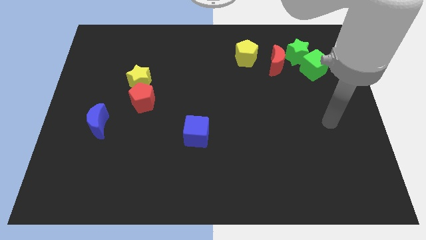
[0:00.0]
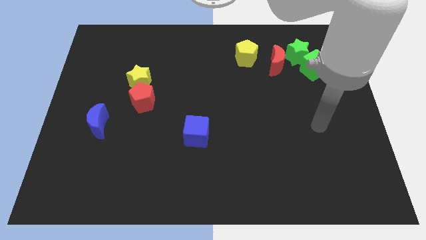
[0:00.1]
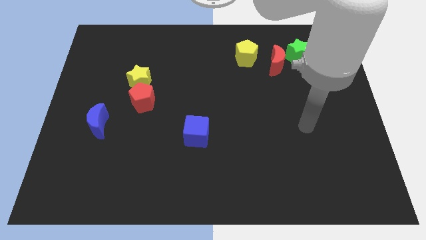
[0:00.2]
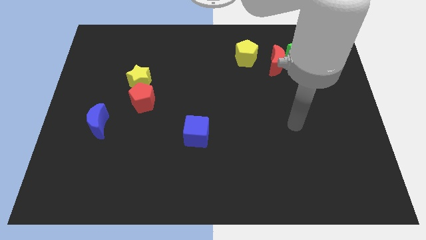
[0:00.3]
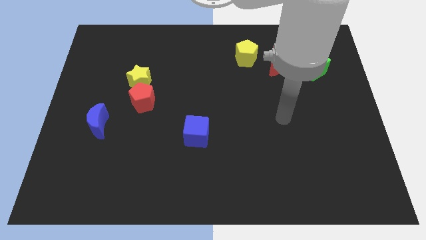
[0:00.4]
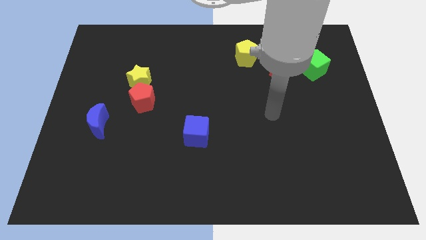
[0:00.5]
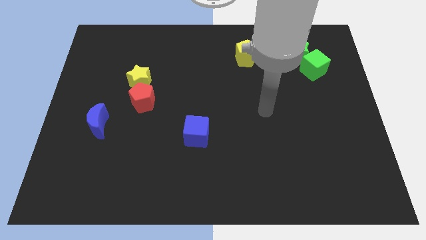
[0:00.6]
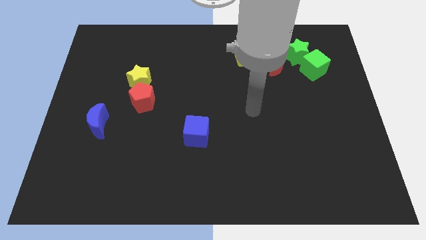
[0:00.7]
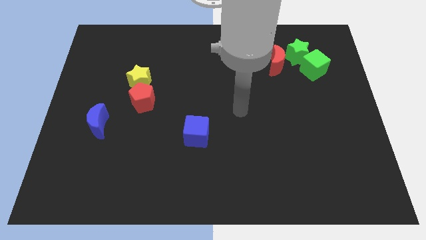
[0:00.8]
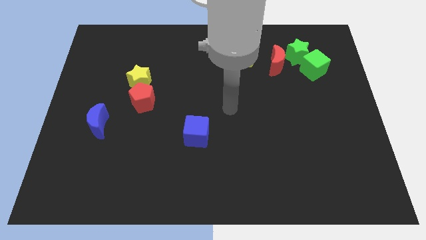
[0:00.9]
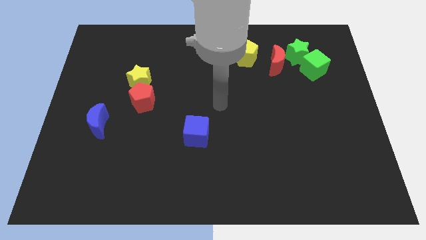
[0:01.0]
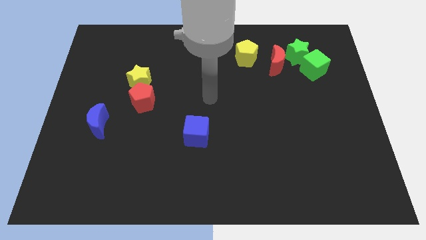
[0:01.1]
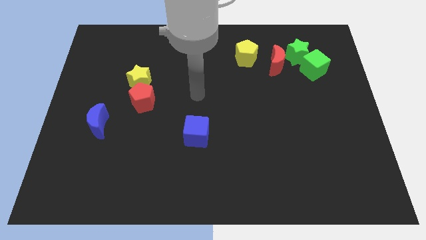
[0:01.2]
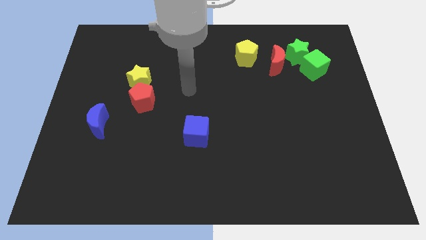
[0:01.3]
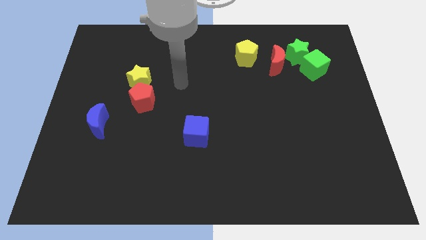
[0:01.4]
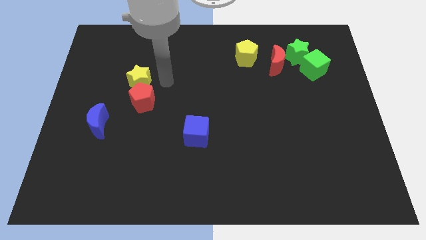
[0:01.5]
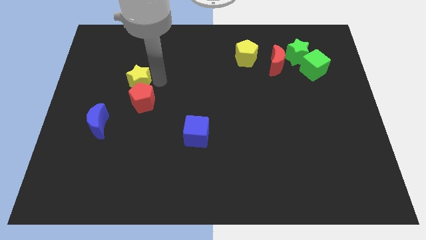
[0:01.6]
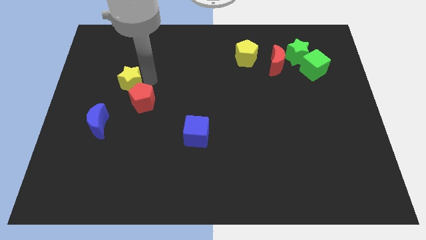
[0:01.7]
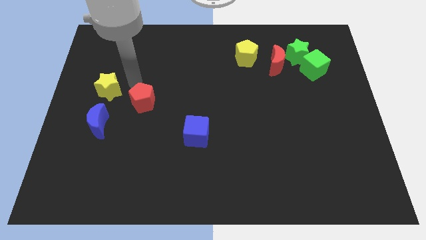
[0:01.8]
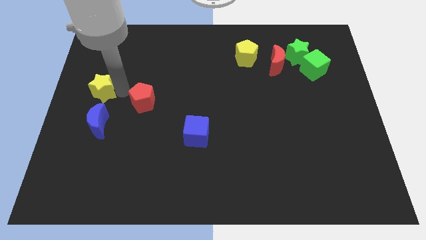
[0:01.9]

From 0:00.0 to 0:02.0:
pull the red pentagon apart from the yellow star

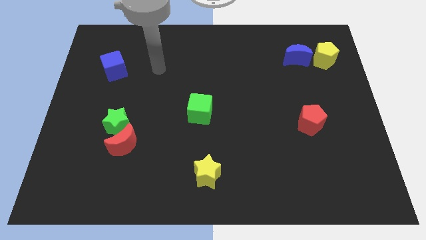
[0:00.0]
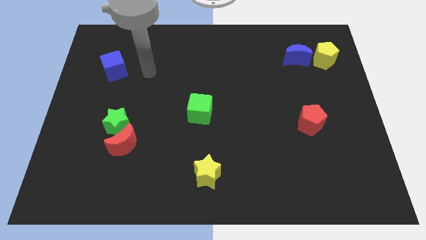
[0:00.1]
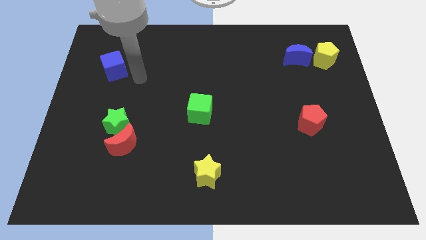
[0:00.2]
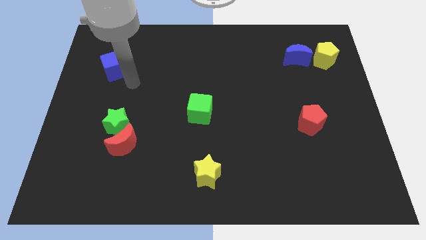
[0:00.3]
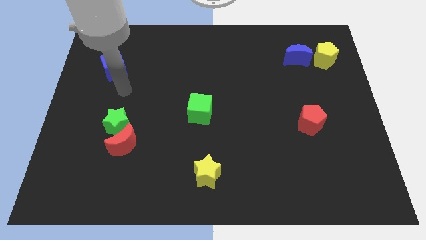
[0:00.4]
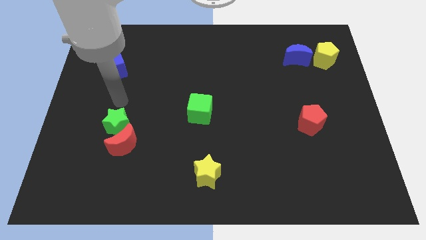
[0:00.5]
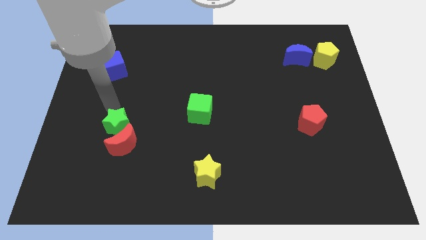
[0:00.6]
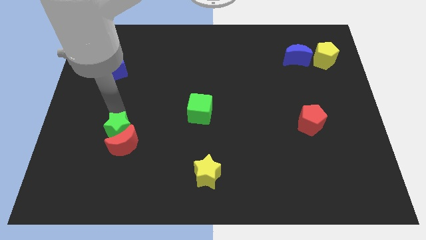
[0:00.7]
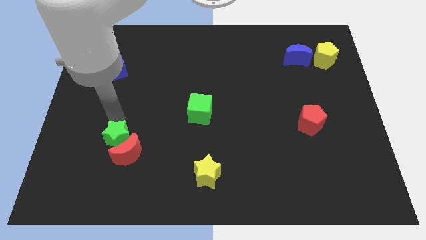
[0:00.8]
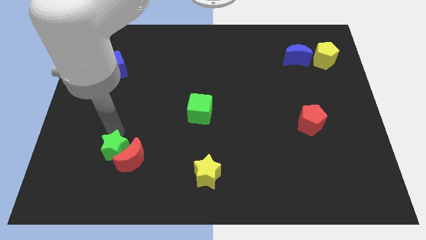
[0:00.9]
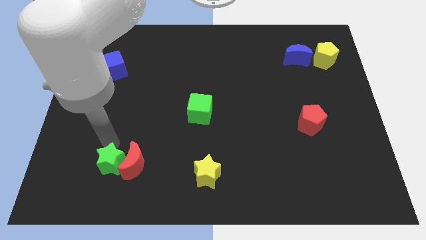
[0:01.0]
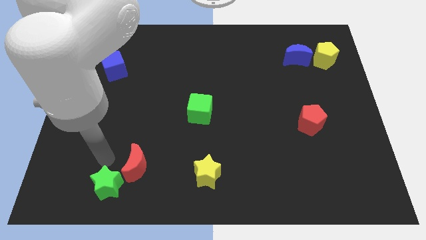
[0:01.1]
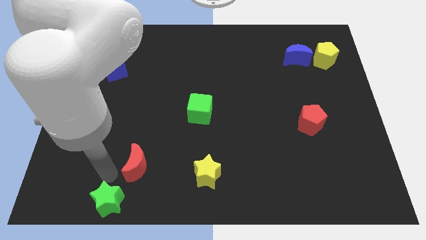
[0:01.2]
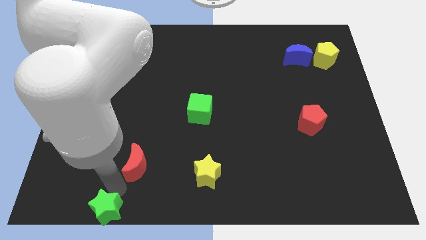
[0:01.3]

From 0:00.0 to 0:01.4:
move the red moon away from the green star

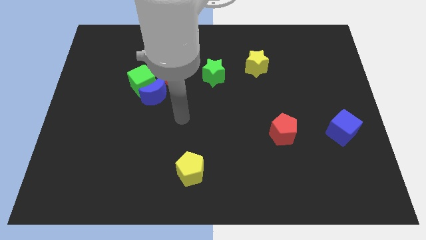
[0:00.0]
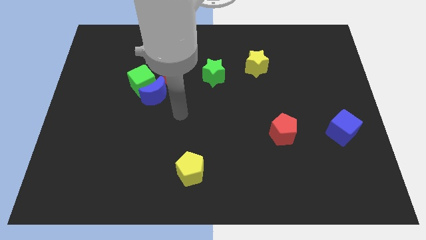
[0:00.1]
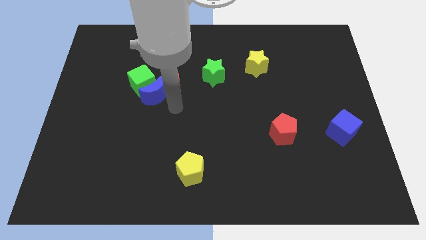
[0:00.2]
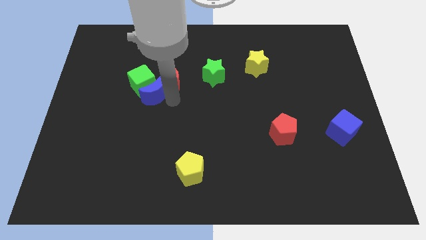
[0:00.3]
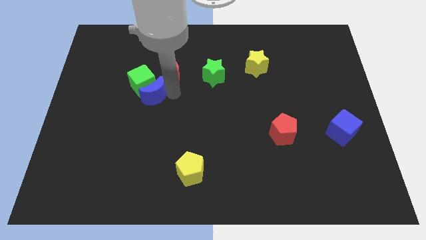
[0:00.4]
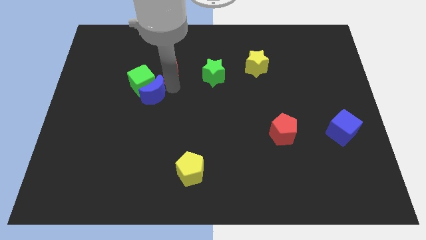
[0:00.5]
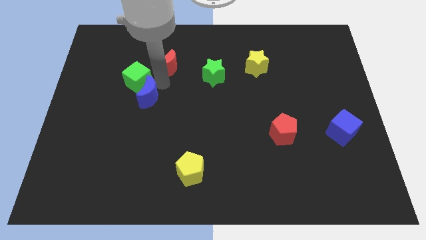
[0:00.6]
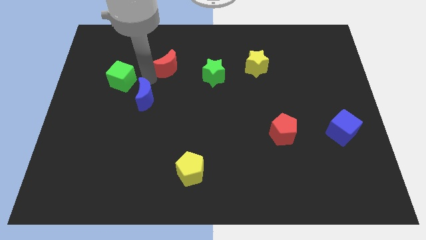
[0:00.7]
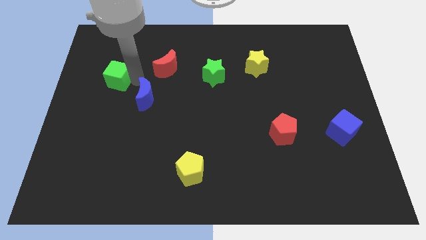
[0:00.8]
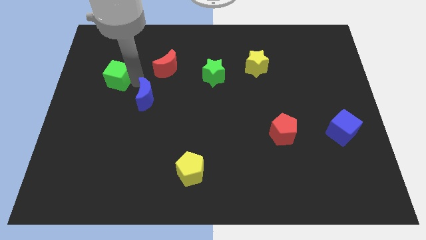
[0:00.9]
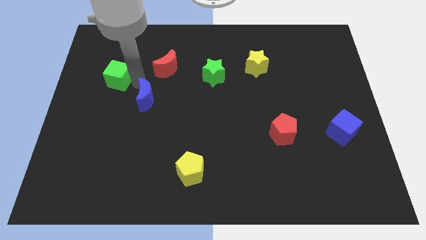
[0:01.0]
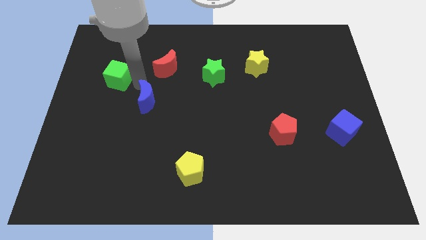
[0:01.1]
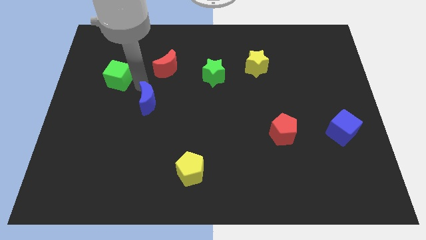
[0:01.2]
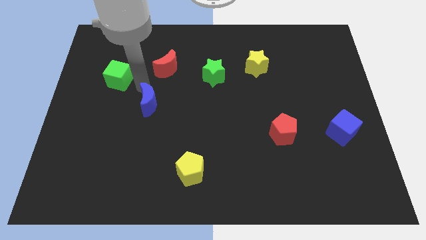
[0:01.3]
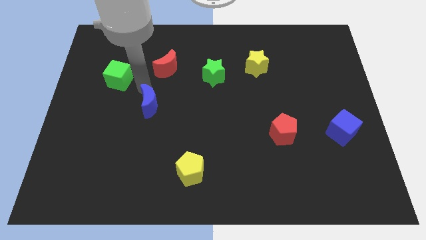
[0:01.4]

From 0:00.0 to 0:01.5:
move the blue moon away from the green cube and red moon

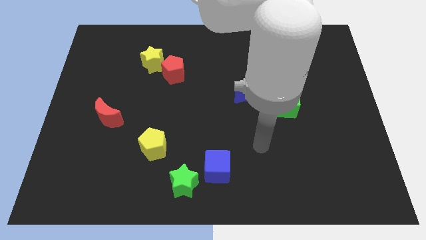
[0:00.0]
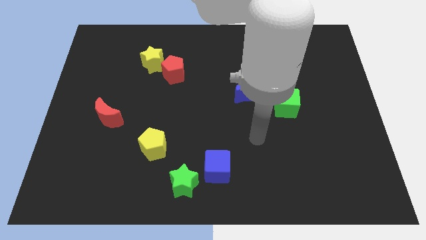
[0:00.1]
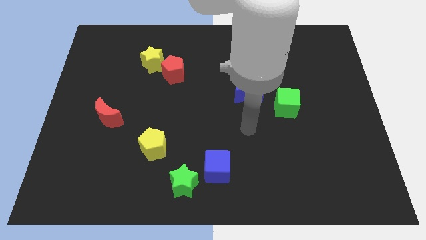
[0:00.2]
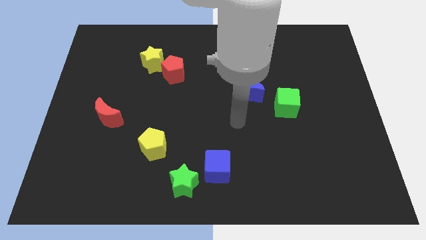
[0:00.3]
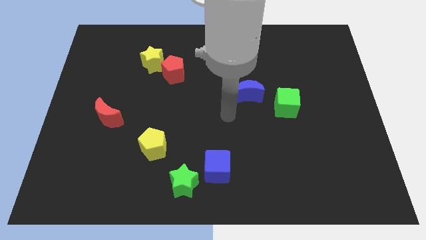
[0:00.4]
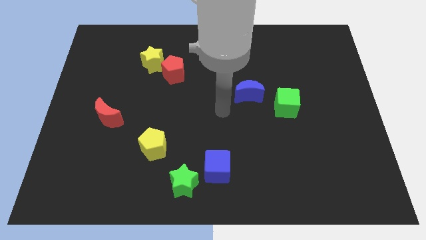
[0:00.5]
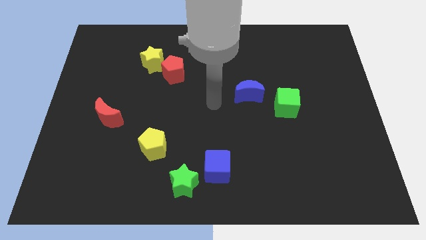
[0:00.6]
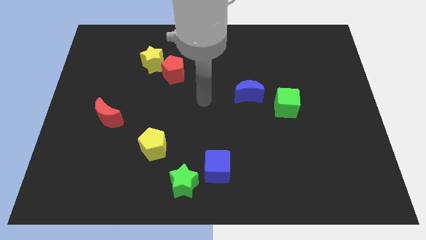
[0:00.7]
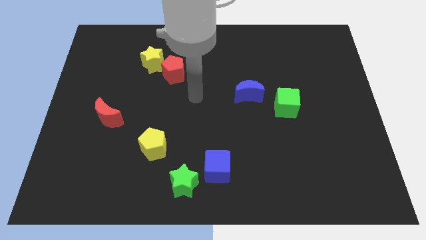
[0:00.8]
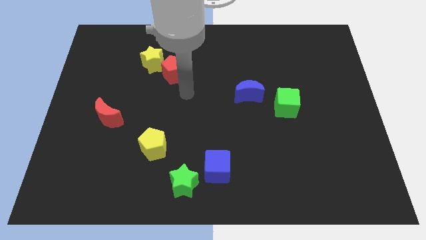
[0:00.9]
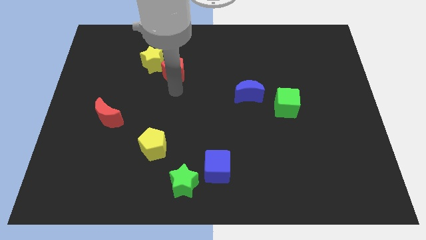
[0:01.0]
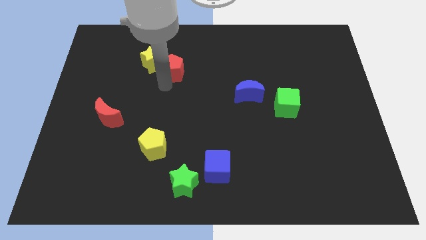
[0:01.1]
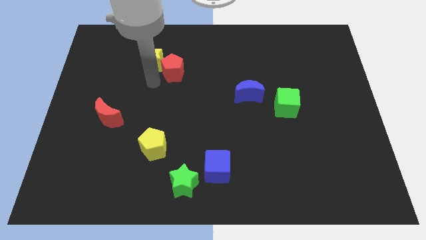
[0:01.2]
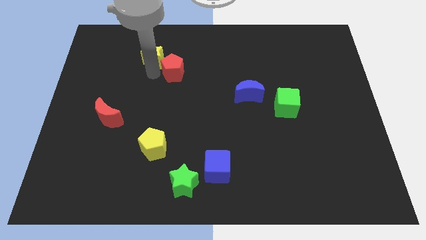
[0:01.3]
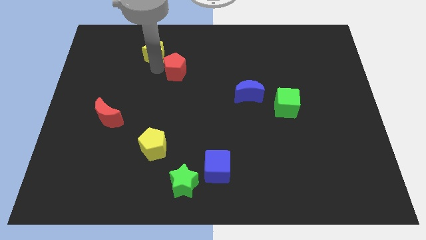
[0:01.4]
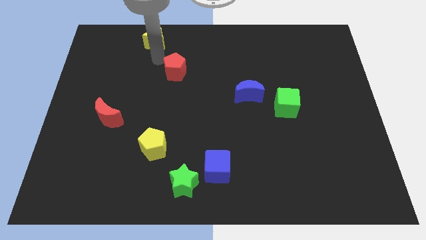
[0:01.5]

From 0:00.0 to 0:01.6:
move the red pentagon away from the yellow star

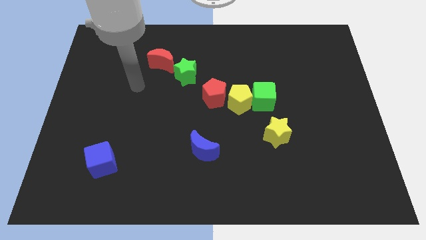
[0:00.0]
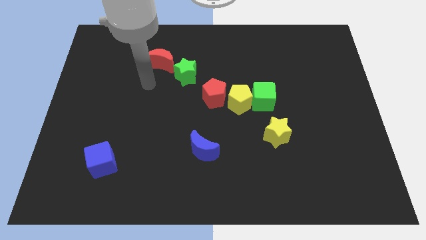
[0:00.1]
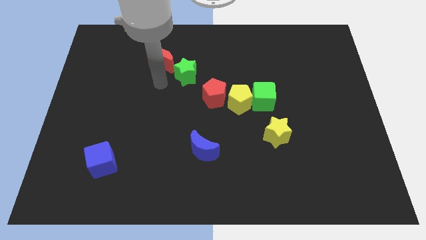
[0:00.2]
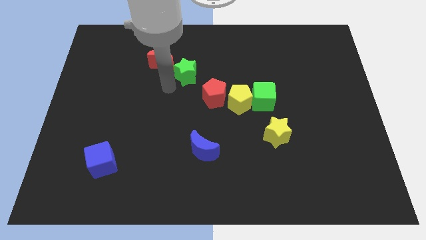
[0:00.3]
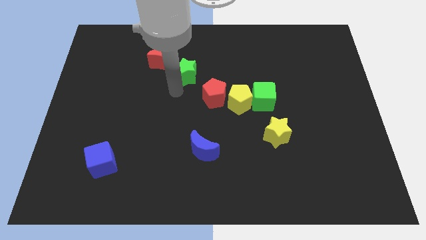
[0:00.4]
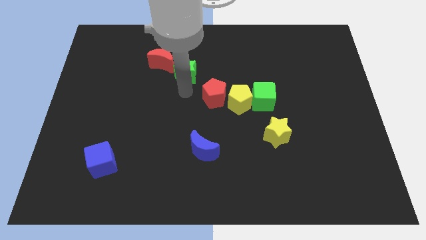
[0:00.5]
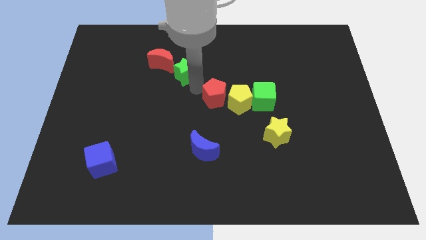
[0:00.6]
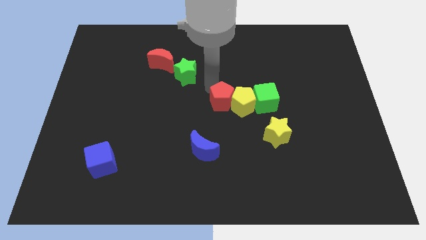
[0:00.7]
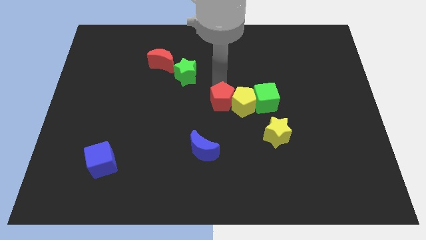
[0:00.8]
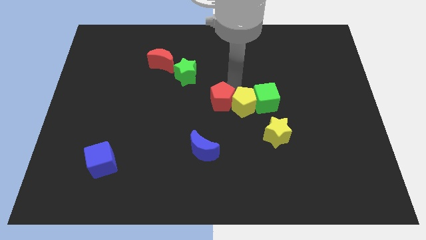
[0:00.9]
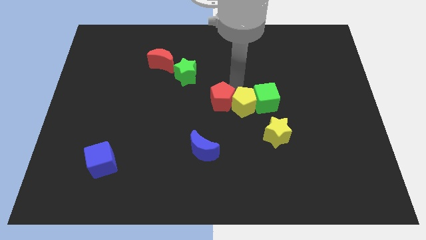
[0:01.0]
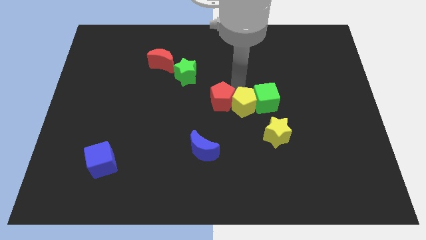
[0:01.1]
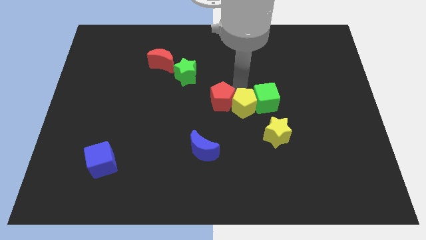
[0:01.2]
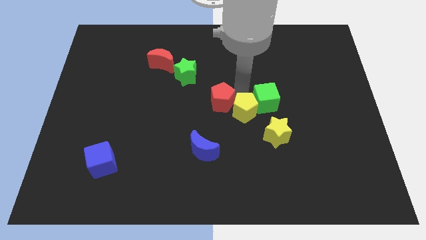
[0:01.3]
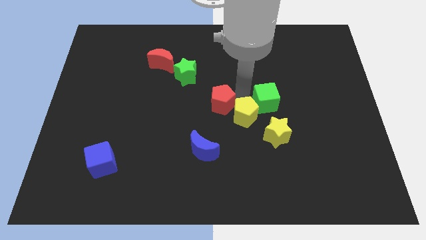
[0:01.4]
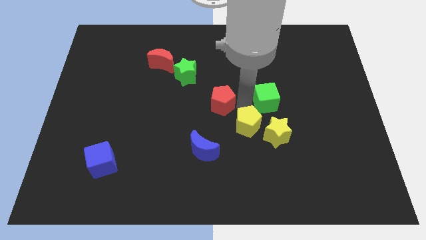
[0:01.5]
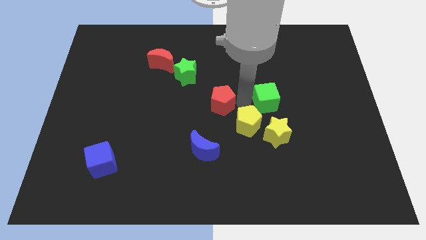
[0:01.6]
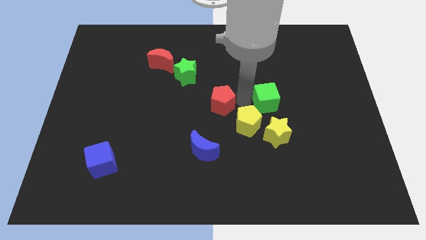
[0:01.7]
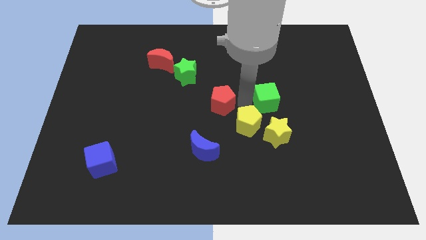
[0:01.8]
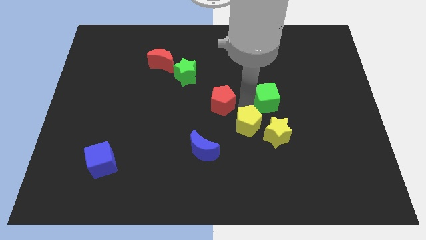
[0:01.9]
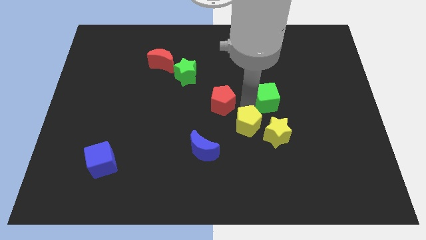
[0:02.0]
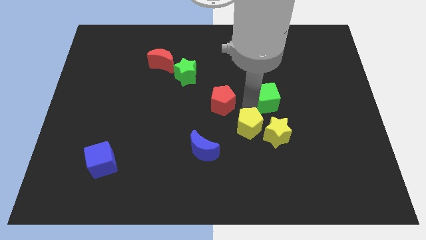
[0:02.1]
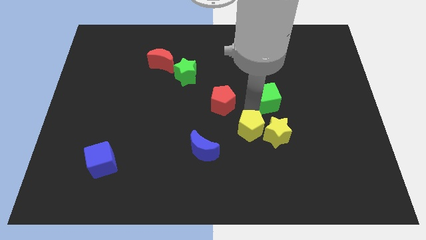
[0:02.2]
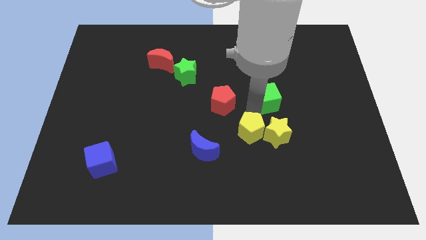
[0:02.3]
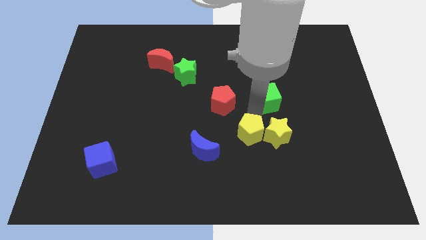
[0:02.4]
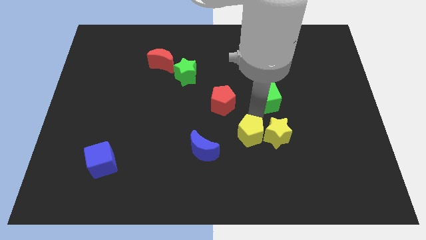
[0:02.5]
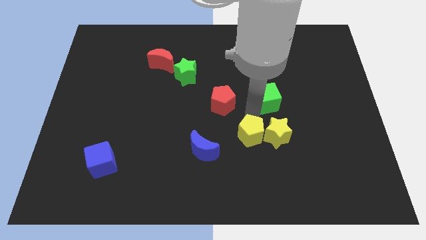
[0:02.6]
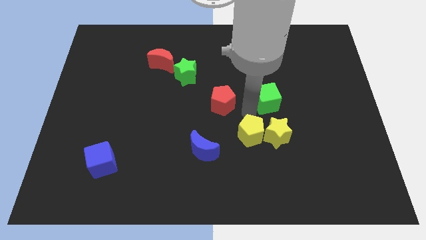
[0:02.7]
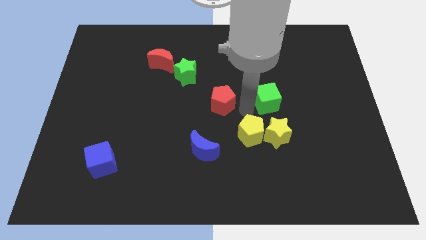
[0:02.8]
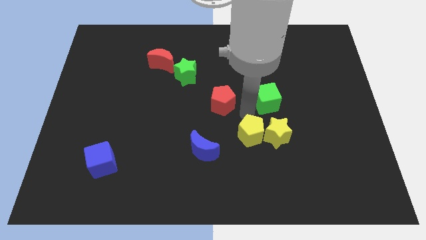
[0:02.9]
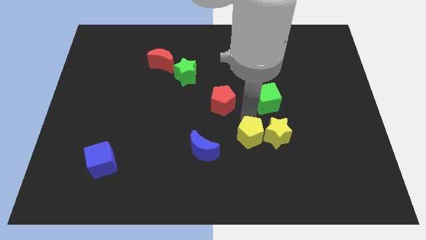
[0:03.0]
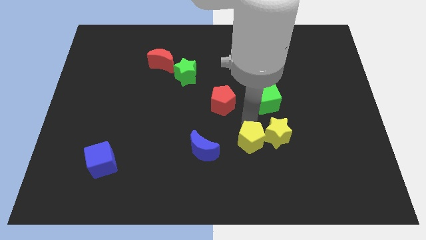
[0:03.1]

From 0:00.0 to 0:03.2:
separate the yellow pentagon from the green cube and red pentagon
